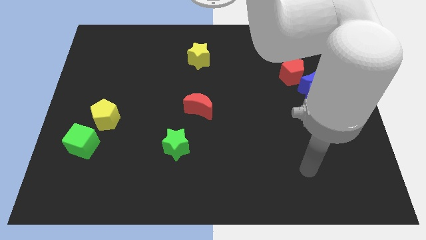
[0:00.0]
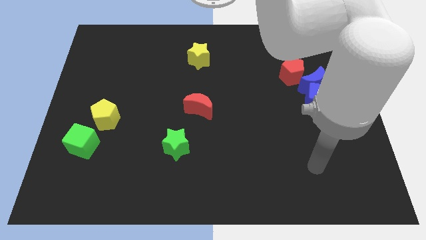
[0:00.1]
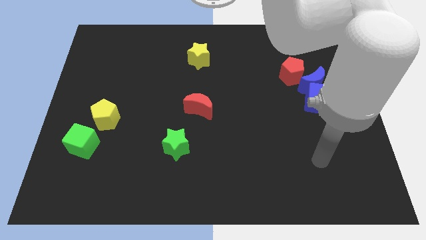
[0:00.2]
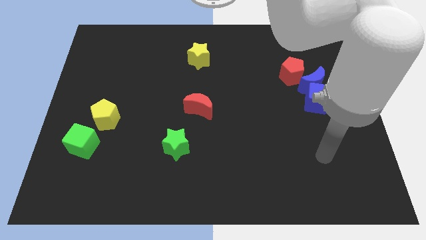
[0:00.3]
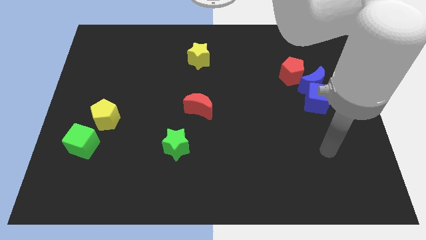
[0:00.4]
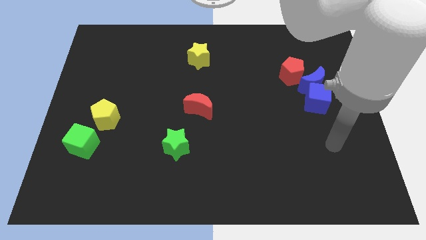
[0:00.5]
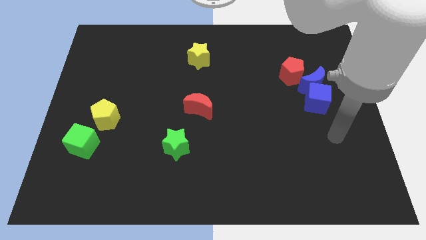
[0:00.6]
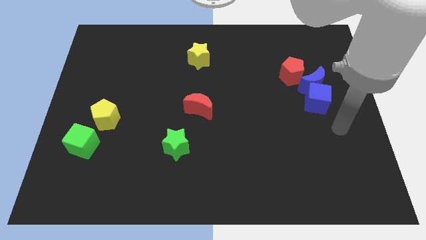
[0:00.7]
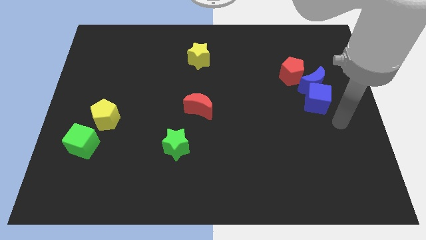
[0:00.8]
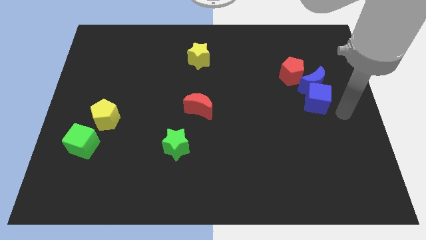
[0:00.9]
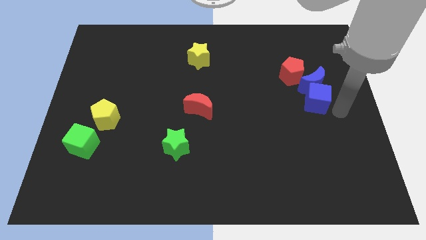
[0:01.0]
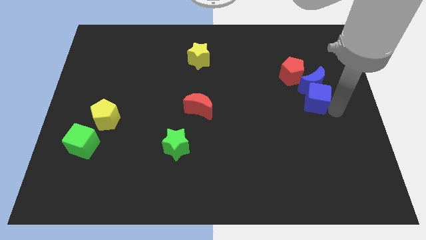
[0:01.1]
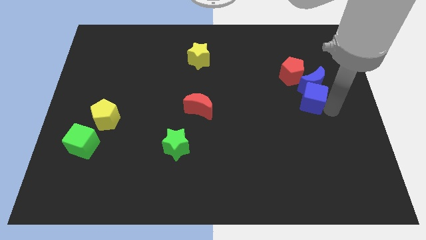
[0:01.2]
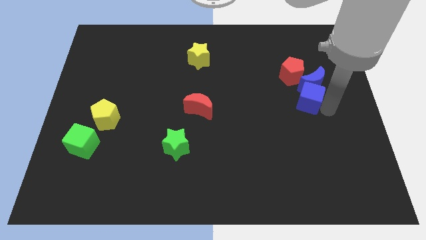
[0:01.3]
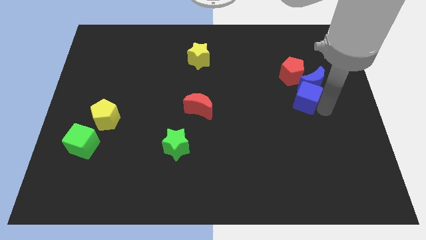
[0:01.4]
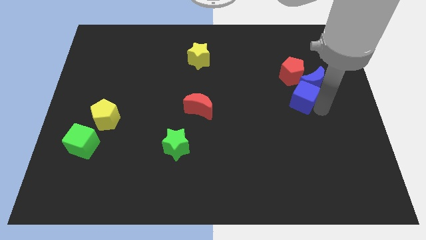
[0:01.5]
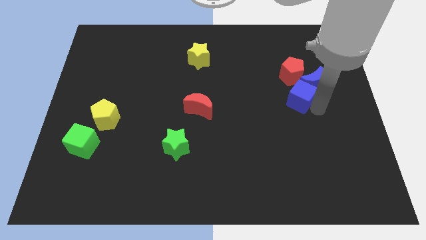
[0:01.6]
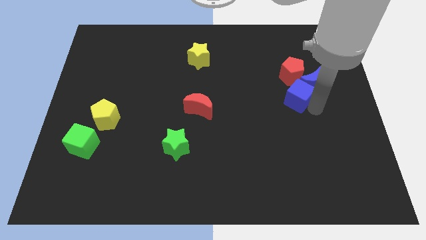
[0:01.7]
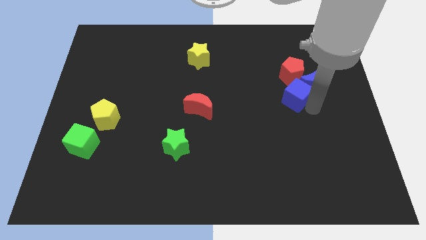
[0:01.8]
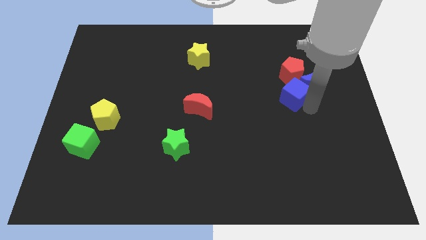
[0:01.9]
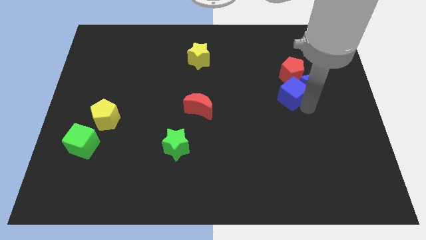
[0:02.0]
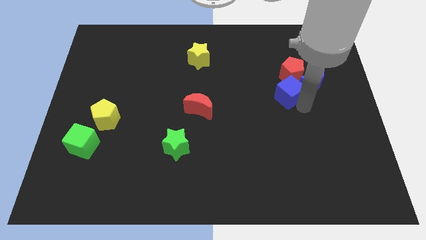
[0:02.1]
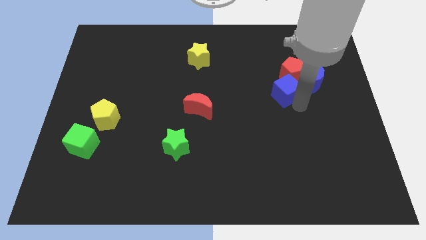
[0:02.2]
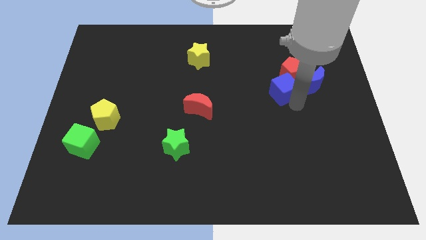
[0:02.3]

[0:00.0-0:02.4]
slide the blue cube up and to the left diagonally slightly

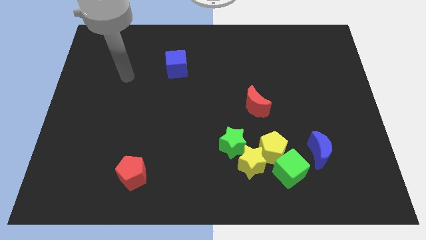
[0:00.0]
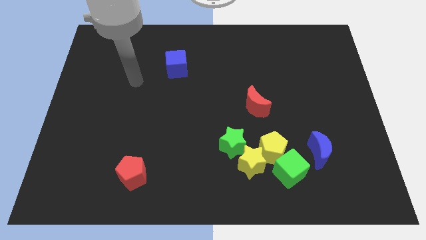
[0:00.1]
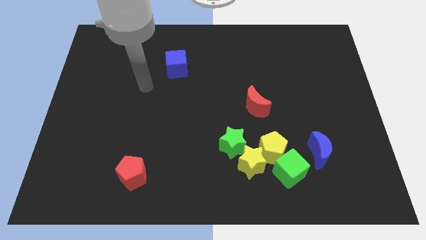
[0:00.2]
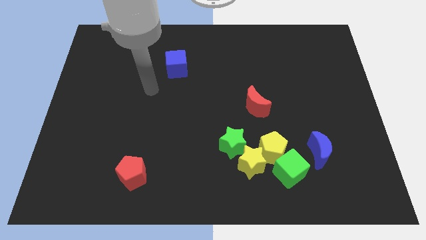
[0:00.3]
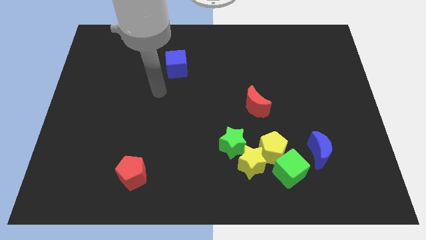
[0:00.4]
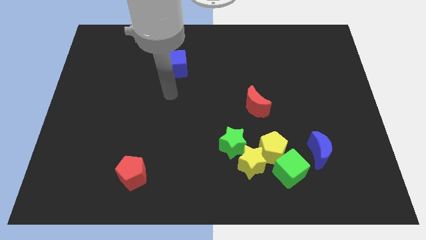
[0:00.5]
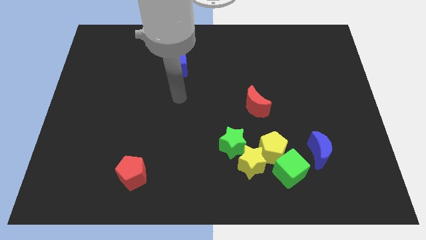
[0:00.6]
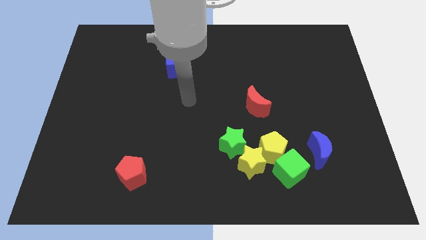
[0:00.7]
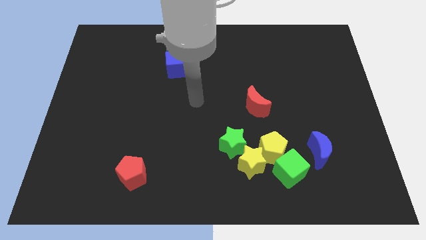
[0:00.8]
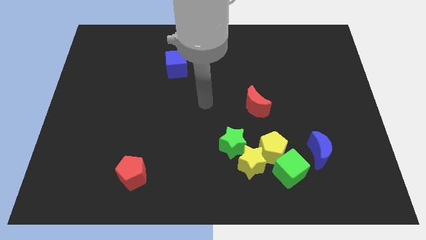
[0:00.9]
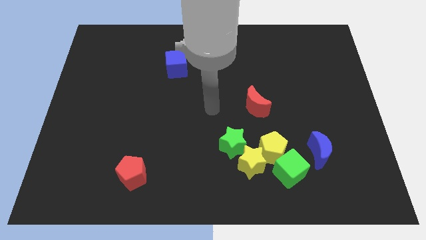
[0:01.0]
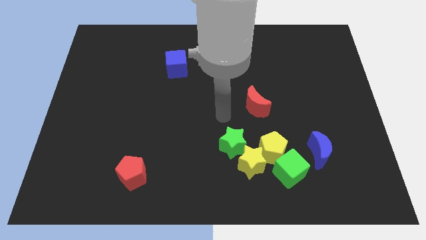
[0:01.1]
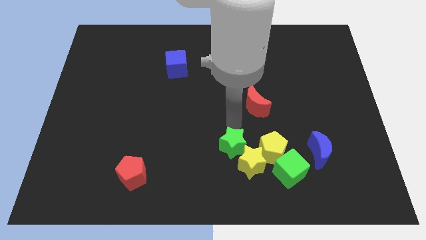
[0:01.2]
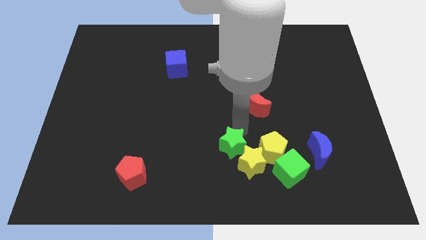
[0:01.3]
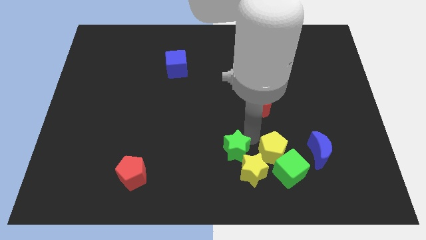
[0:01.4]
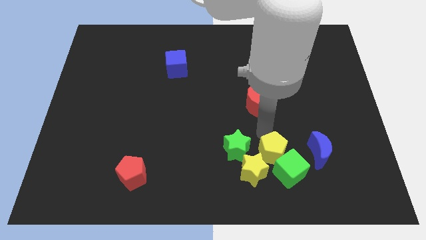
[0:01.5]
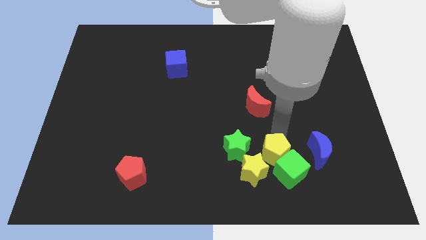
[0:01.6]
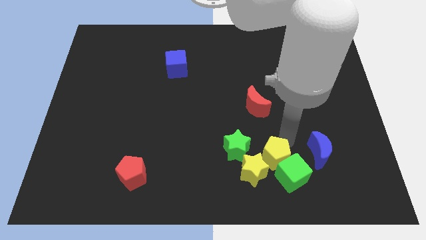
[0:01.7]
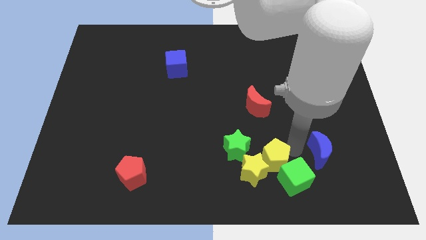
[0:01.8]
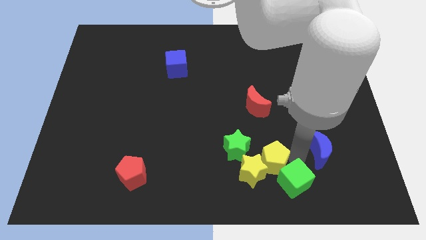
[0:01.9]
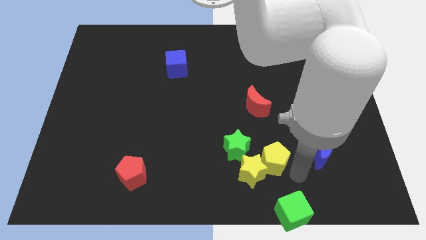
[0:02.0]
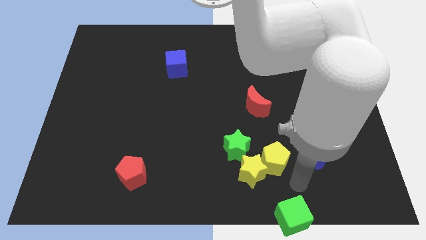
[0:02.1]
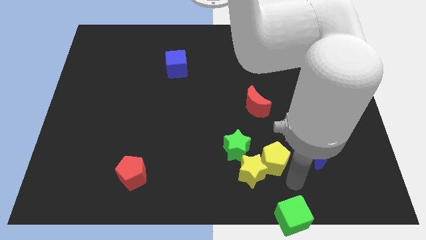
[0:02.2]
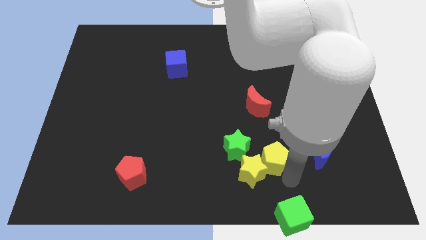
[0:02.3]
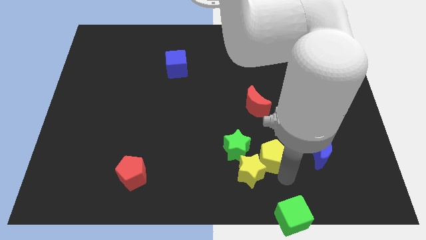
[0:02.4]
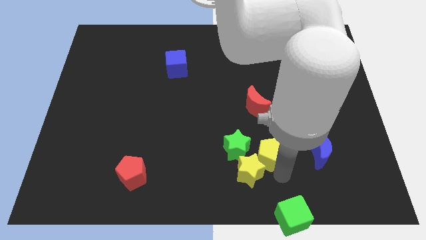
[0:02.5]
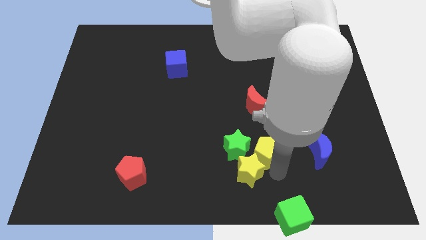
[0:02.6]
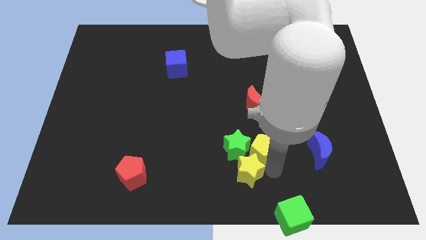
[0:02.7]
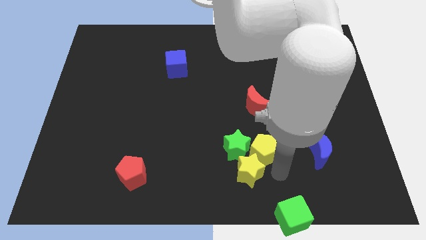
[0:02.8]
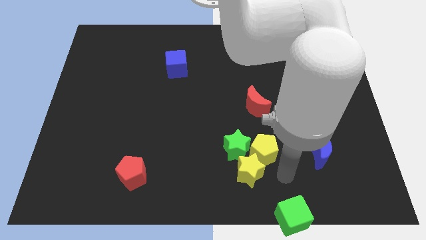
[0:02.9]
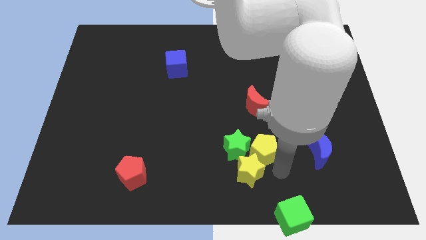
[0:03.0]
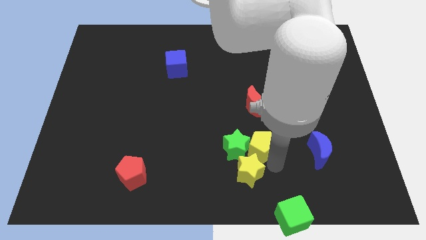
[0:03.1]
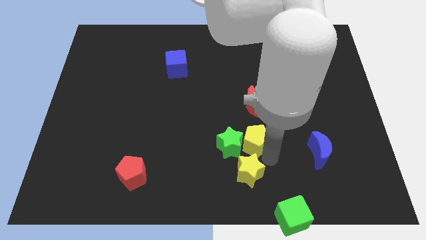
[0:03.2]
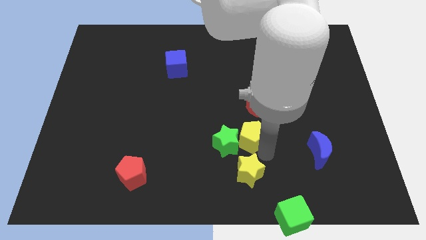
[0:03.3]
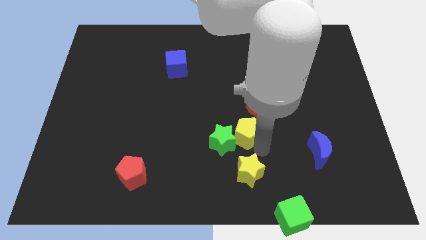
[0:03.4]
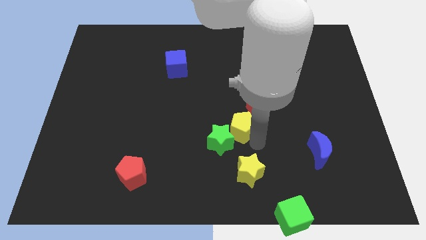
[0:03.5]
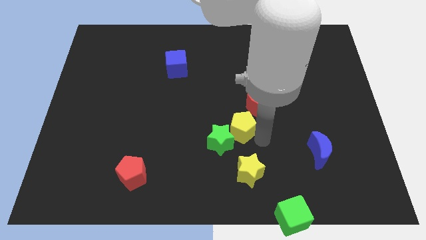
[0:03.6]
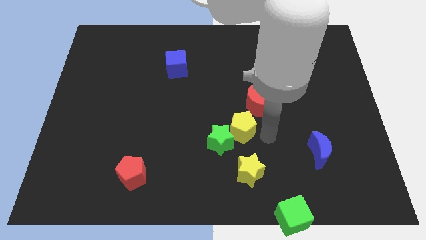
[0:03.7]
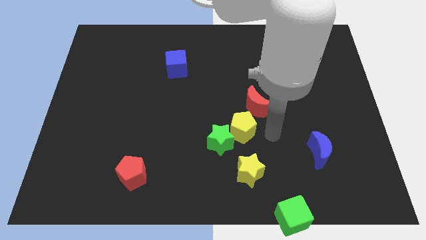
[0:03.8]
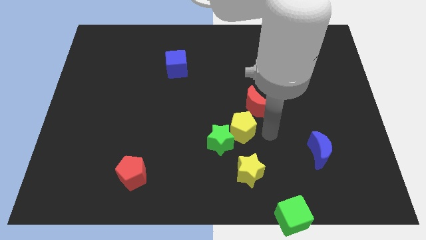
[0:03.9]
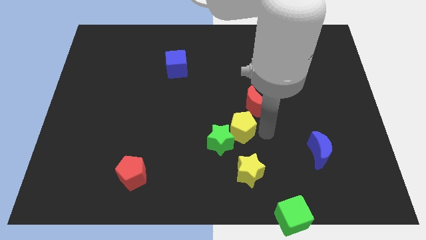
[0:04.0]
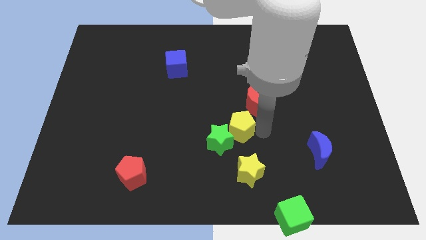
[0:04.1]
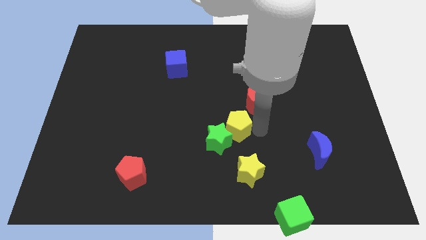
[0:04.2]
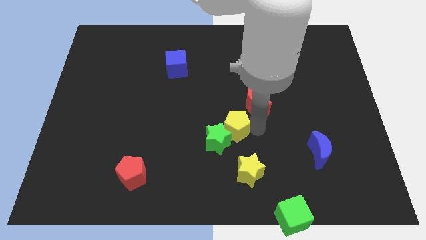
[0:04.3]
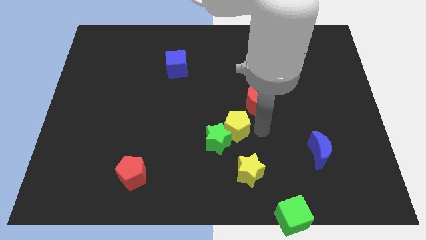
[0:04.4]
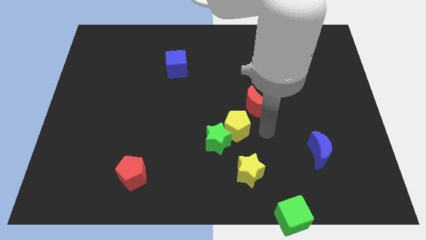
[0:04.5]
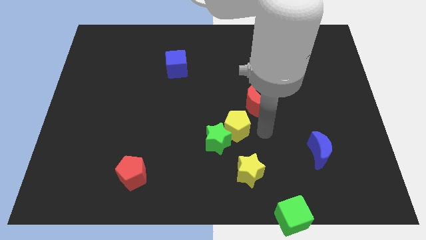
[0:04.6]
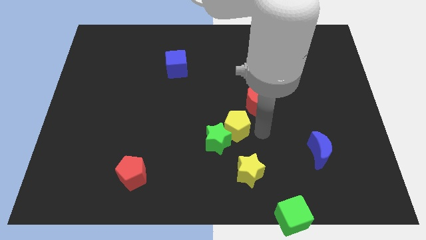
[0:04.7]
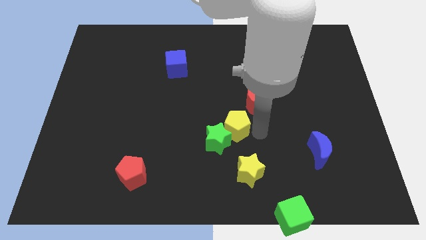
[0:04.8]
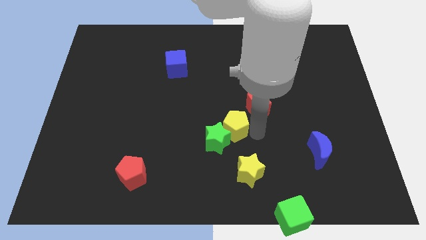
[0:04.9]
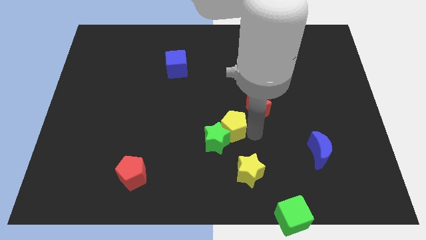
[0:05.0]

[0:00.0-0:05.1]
push the yellow pentagon to the left a little bit
